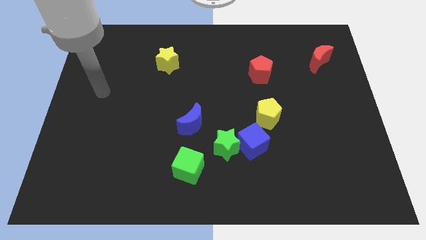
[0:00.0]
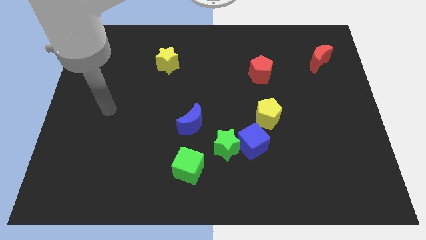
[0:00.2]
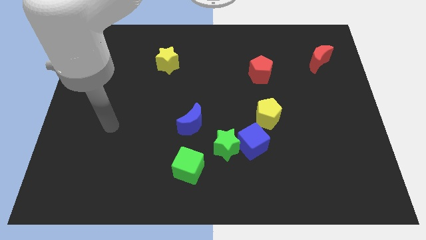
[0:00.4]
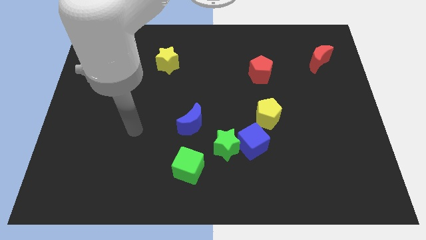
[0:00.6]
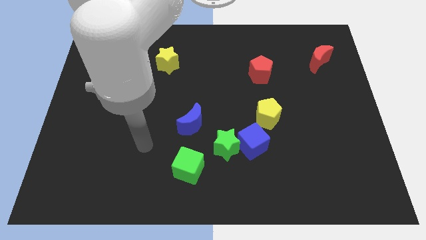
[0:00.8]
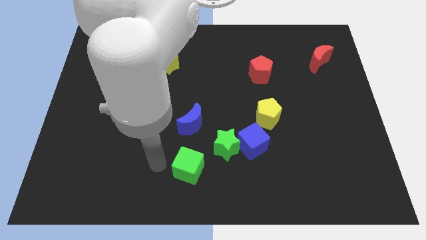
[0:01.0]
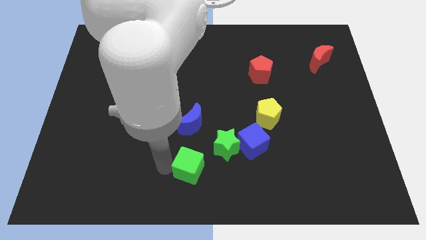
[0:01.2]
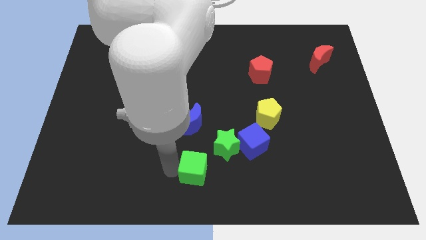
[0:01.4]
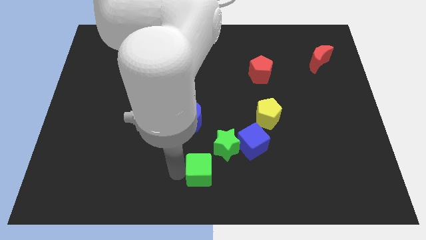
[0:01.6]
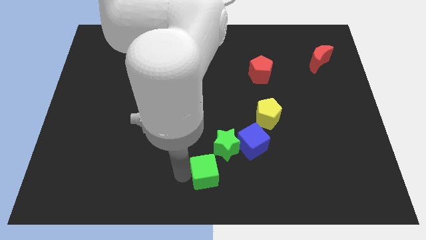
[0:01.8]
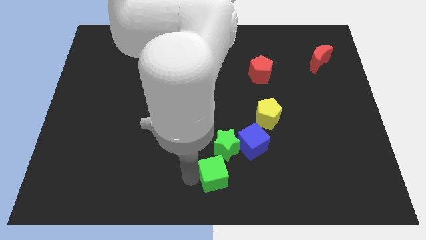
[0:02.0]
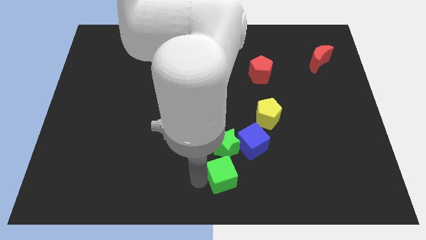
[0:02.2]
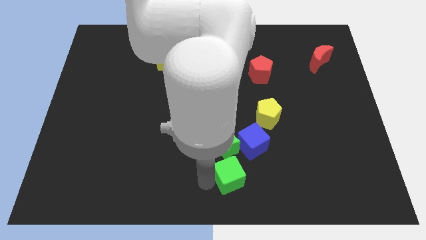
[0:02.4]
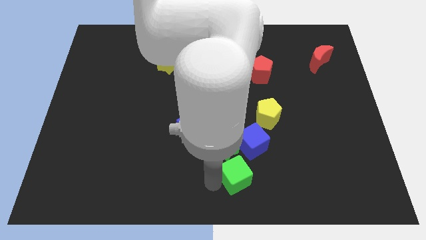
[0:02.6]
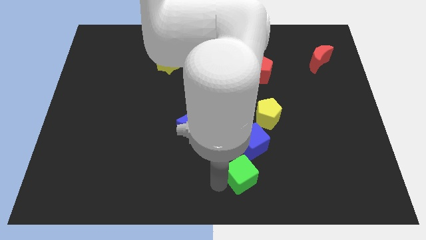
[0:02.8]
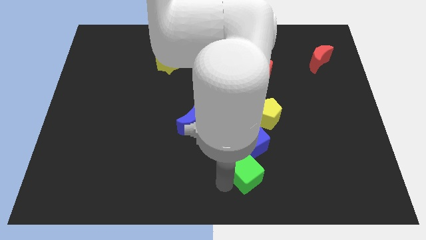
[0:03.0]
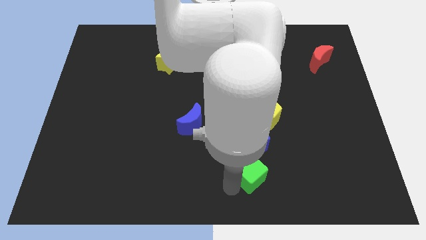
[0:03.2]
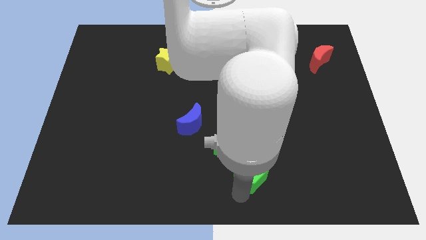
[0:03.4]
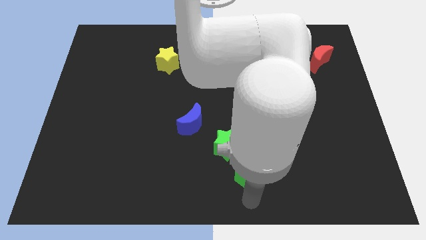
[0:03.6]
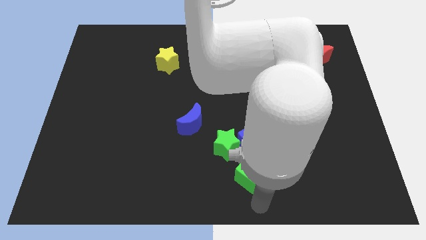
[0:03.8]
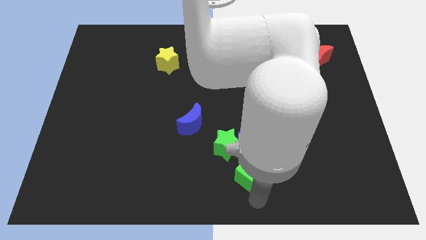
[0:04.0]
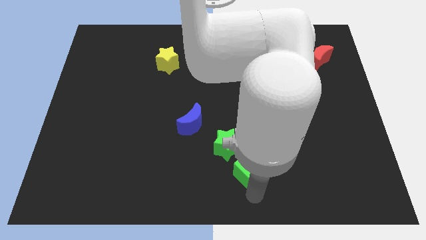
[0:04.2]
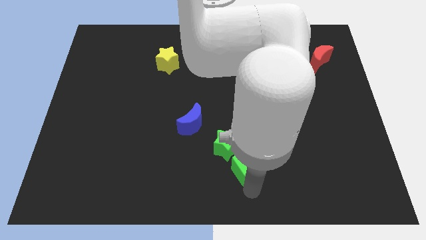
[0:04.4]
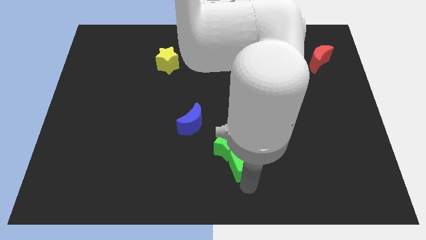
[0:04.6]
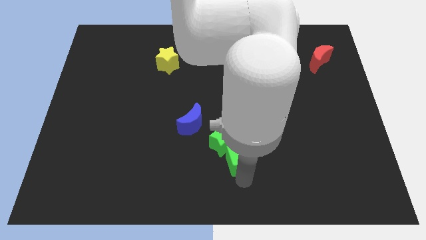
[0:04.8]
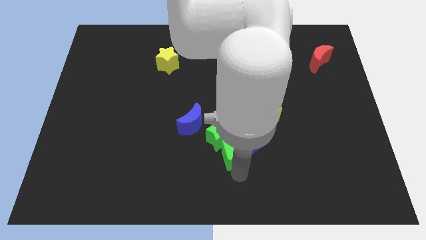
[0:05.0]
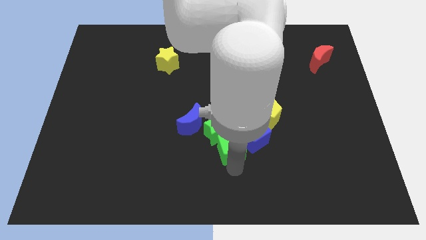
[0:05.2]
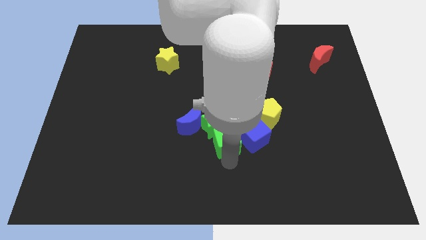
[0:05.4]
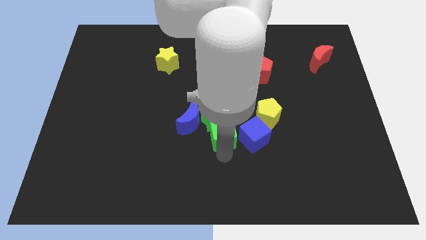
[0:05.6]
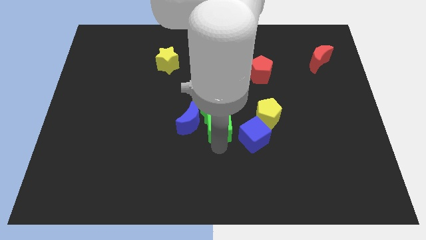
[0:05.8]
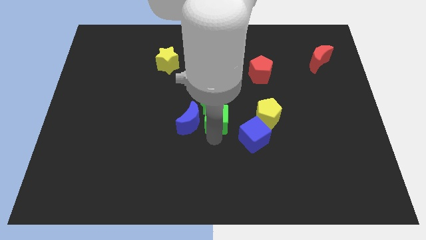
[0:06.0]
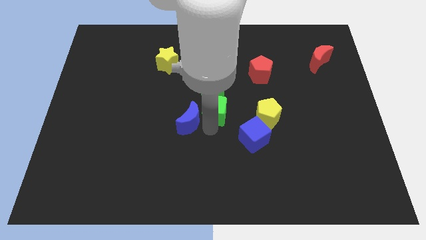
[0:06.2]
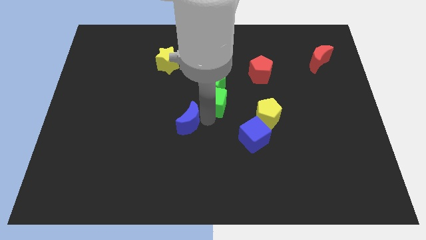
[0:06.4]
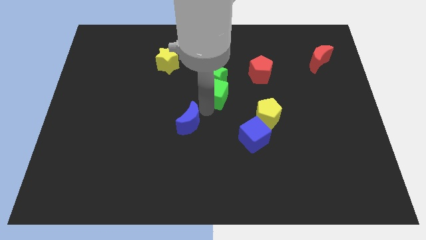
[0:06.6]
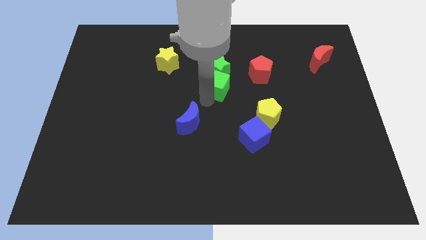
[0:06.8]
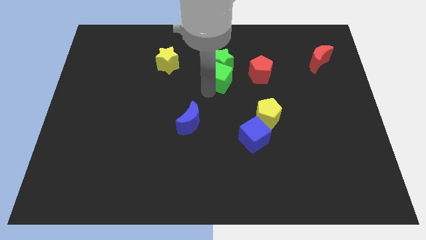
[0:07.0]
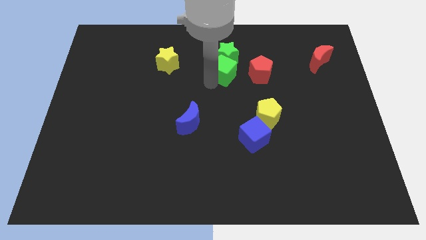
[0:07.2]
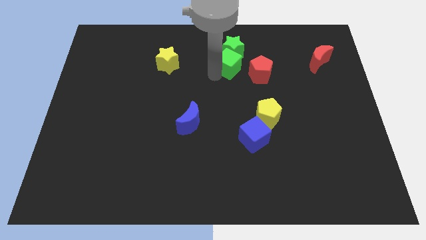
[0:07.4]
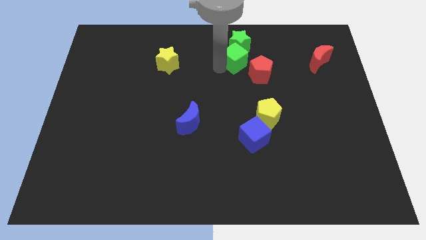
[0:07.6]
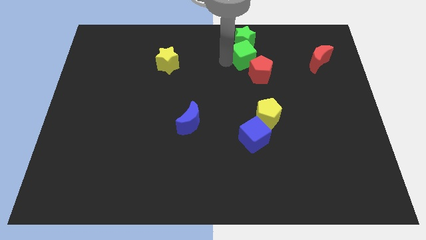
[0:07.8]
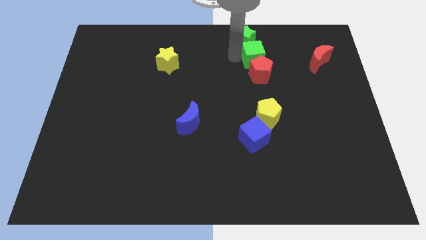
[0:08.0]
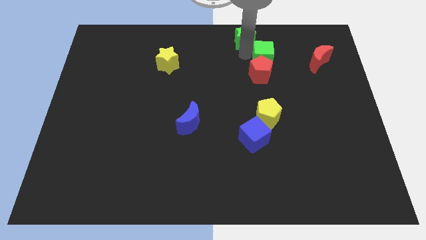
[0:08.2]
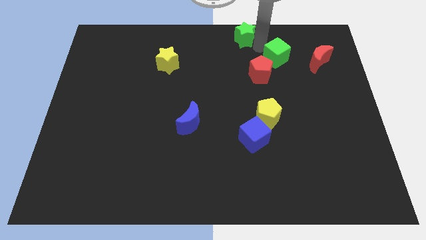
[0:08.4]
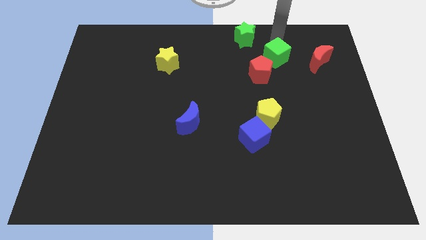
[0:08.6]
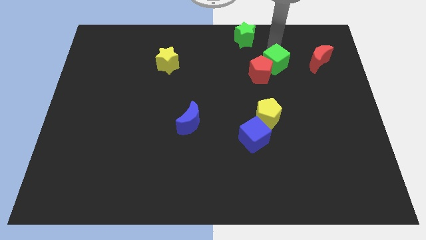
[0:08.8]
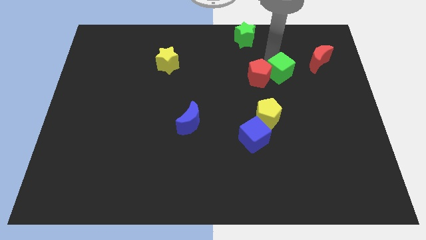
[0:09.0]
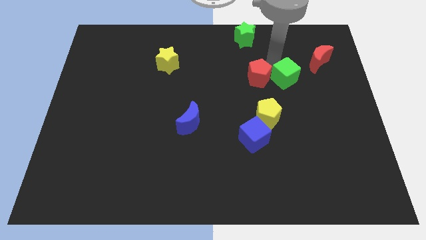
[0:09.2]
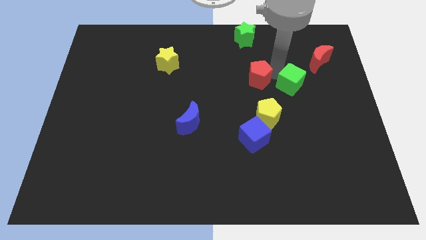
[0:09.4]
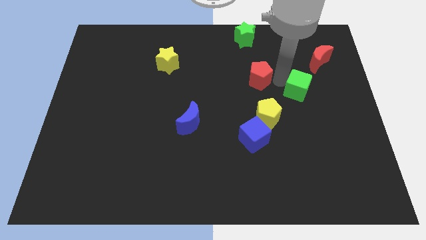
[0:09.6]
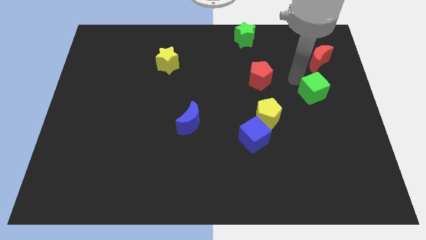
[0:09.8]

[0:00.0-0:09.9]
push the green cube to the bottom side of the red moon

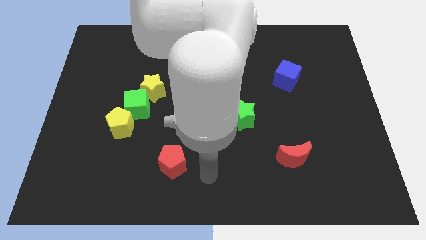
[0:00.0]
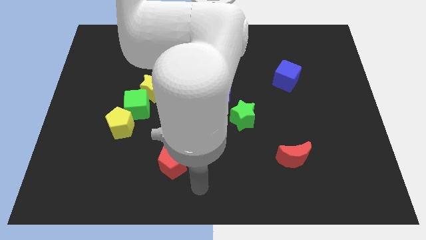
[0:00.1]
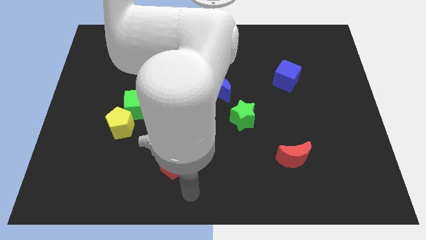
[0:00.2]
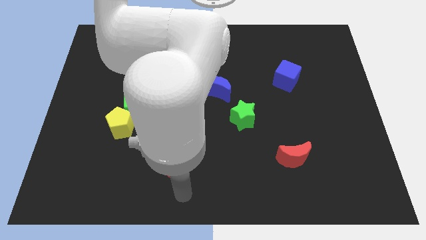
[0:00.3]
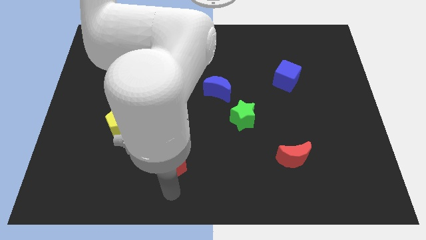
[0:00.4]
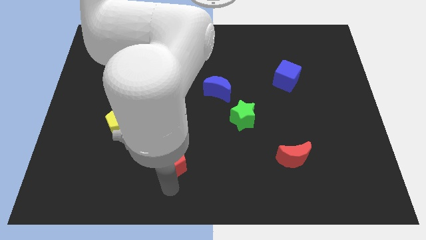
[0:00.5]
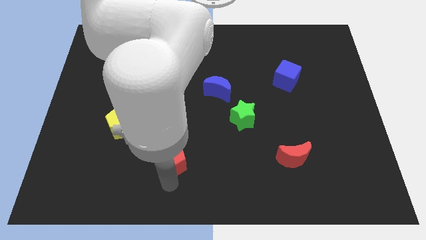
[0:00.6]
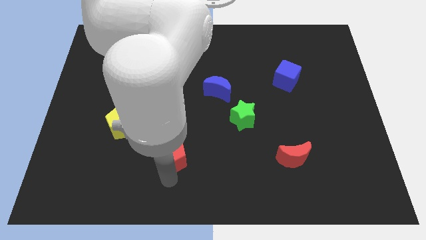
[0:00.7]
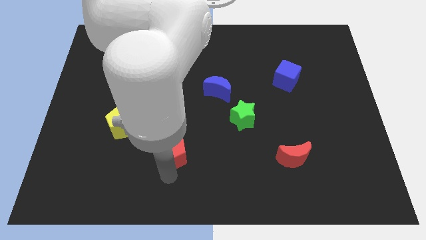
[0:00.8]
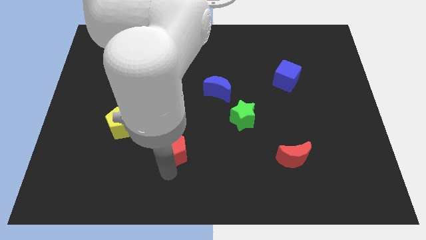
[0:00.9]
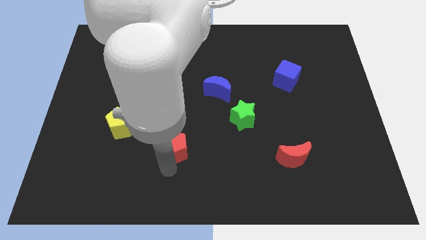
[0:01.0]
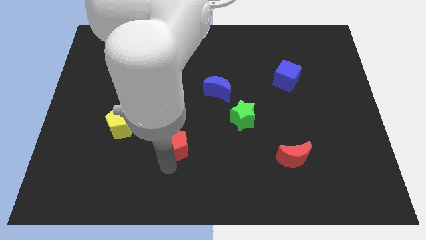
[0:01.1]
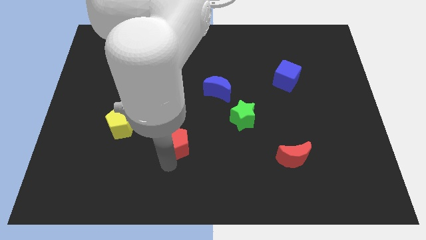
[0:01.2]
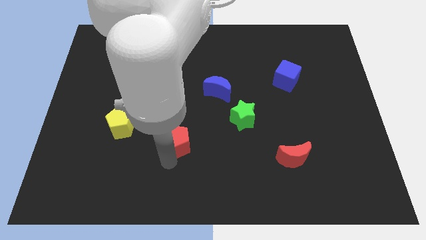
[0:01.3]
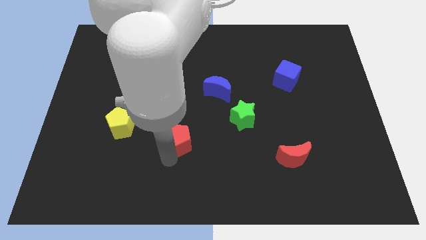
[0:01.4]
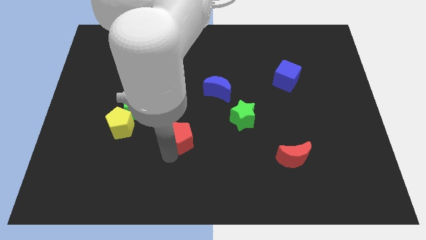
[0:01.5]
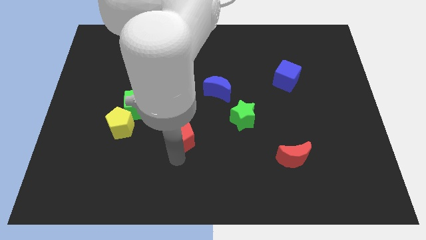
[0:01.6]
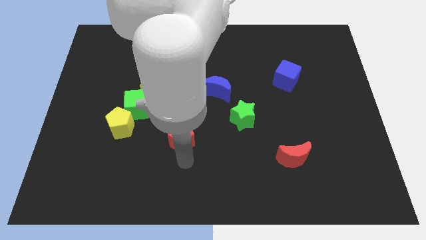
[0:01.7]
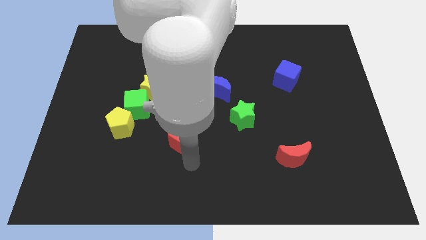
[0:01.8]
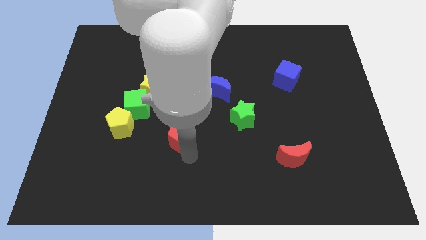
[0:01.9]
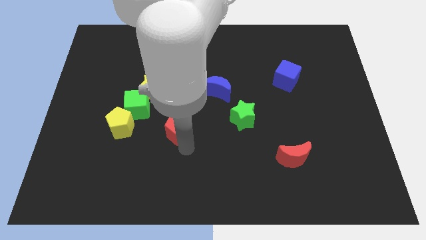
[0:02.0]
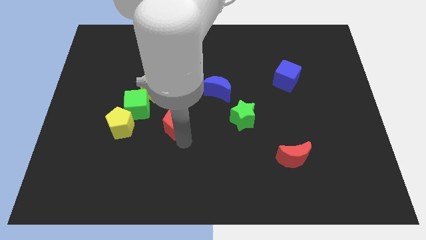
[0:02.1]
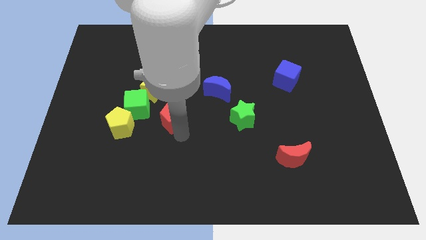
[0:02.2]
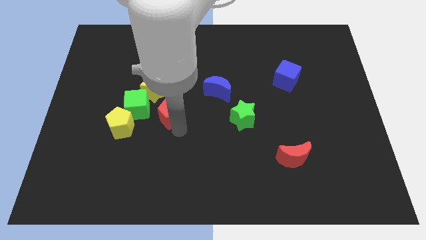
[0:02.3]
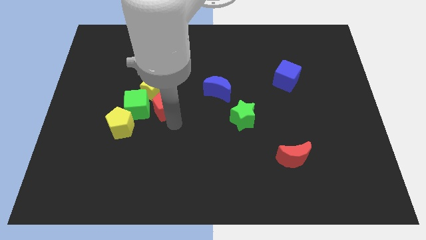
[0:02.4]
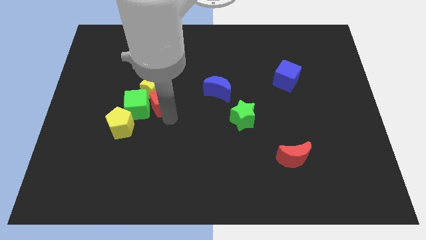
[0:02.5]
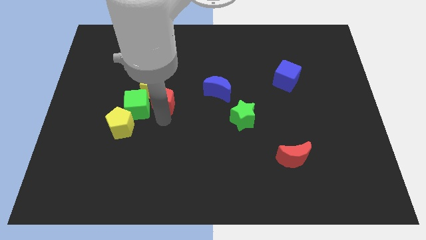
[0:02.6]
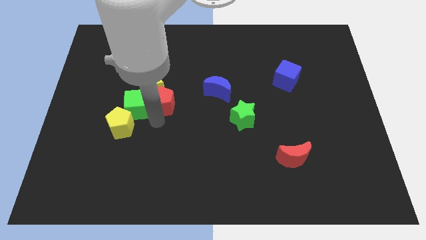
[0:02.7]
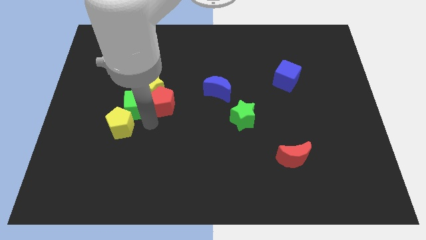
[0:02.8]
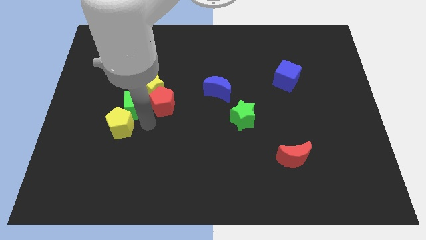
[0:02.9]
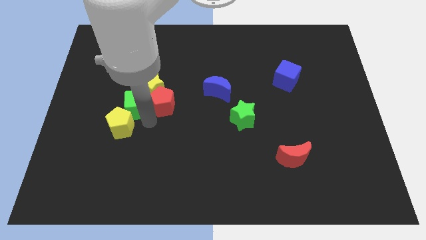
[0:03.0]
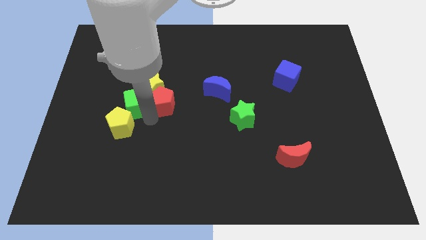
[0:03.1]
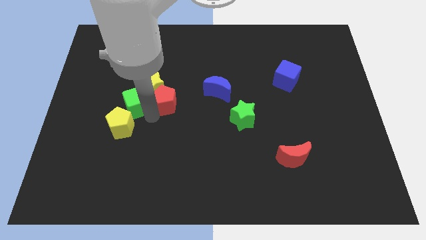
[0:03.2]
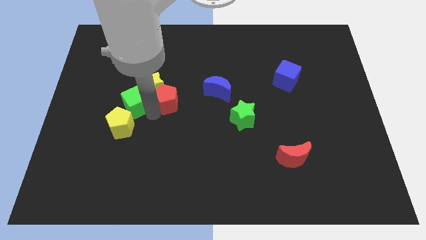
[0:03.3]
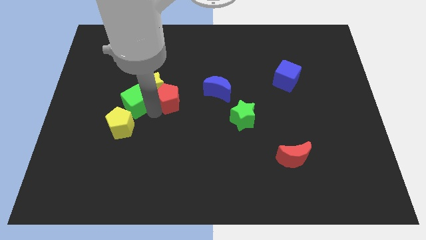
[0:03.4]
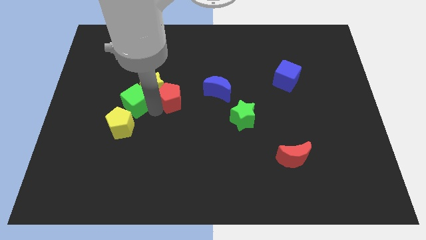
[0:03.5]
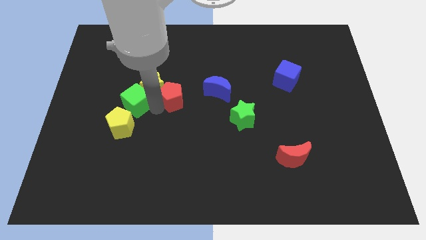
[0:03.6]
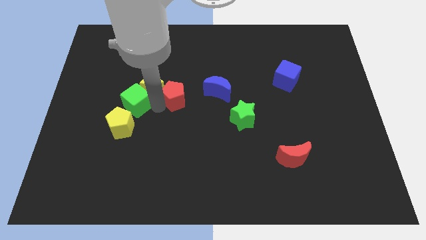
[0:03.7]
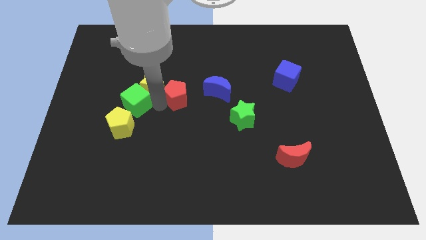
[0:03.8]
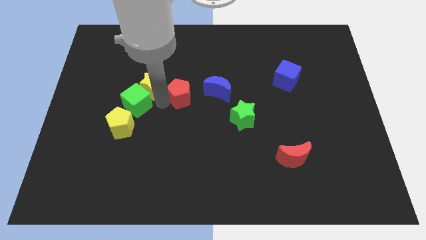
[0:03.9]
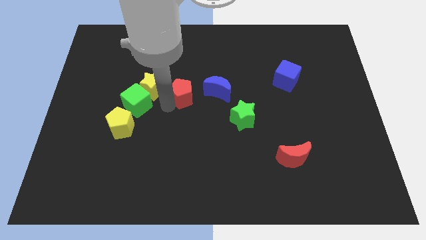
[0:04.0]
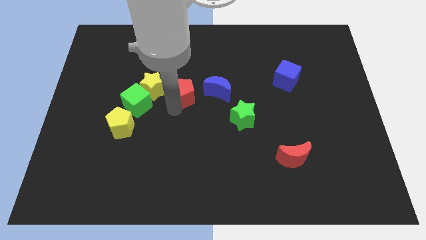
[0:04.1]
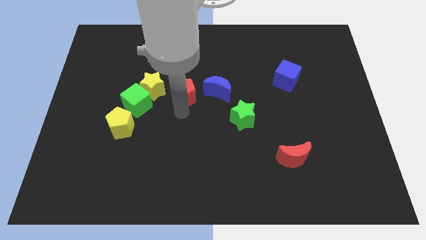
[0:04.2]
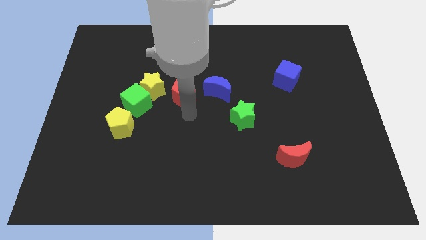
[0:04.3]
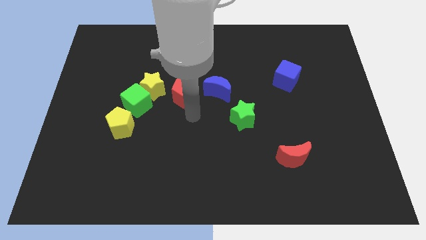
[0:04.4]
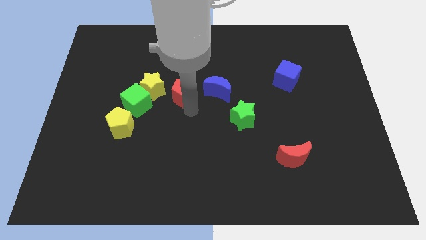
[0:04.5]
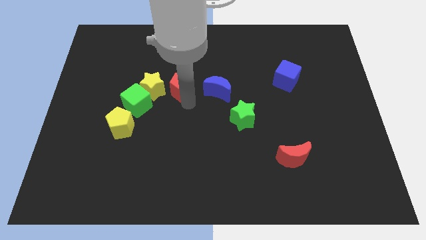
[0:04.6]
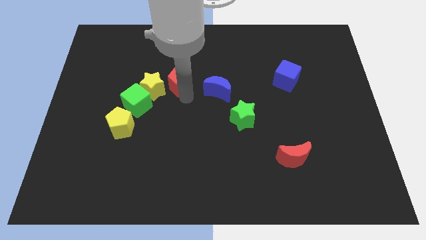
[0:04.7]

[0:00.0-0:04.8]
push the red pentagon diagonally up and to the right of the yellow star
